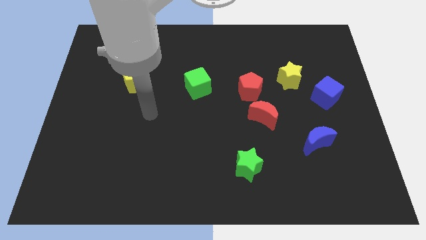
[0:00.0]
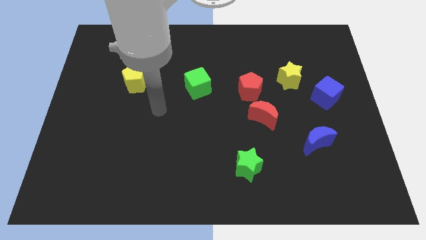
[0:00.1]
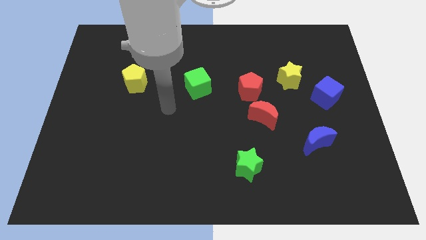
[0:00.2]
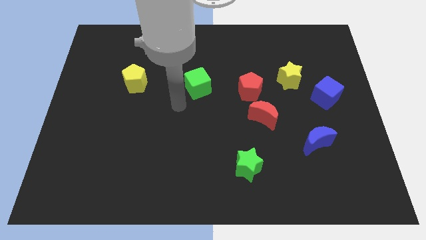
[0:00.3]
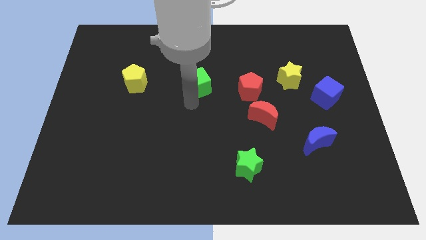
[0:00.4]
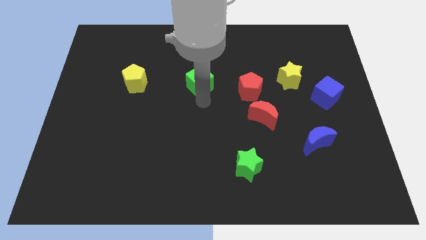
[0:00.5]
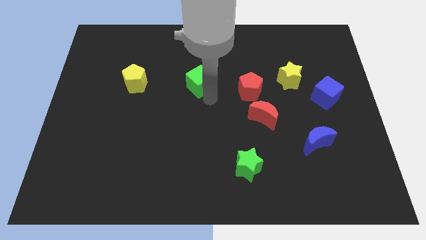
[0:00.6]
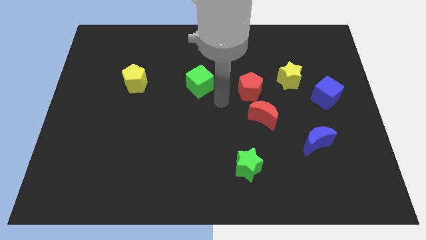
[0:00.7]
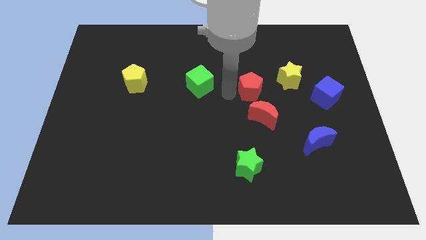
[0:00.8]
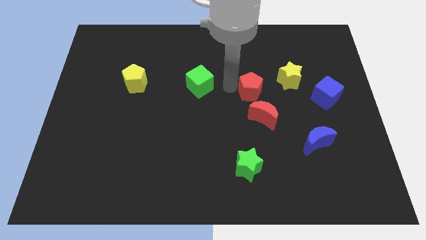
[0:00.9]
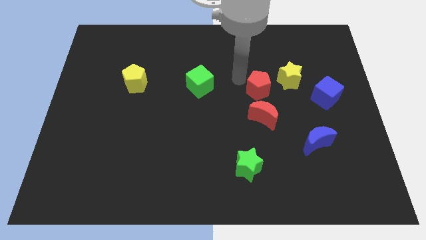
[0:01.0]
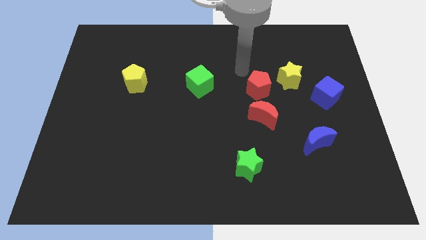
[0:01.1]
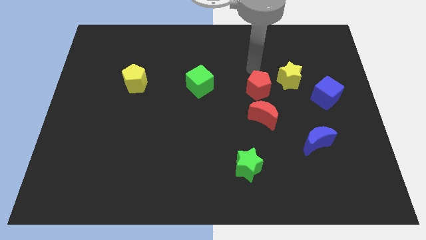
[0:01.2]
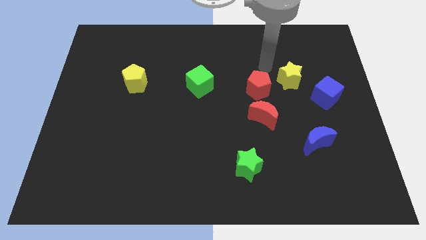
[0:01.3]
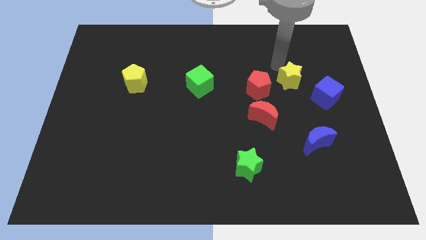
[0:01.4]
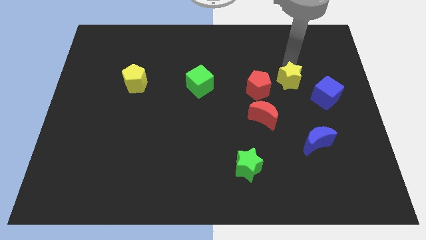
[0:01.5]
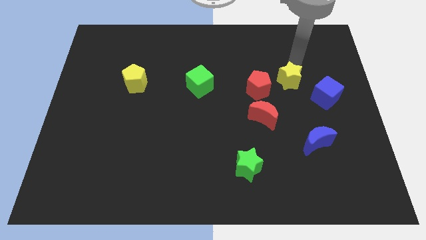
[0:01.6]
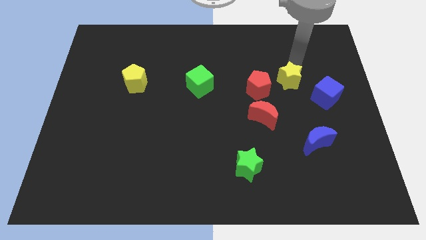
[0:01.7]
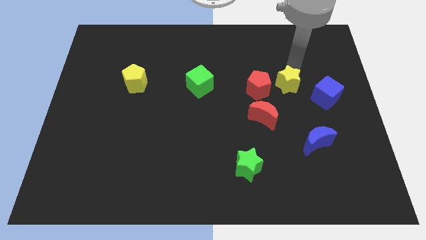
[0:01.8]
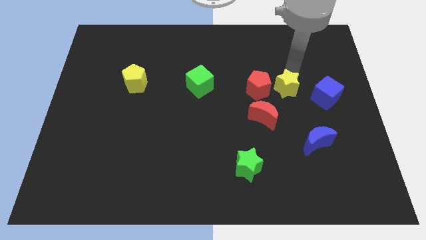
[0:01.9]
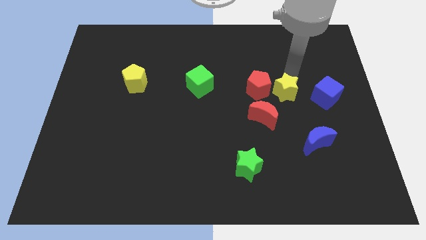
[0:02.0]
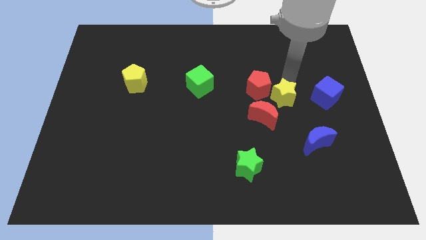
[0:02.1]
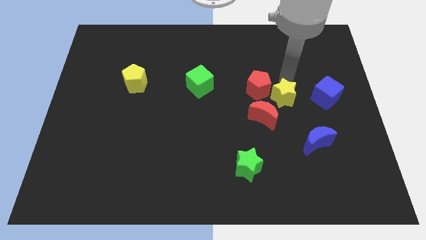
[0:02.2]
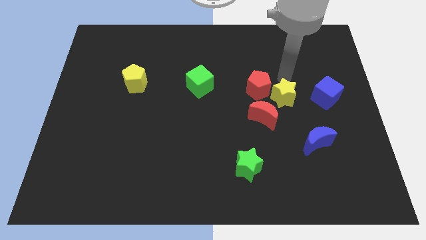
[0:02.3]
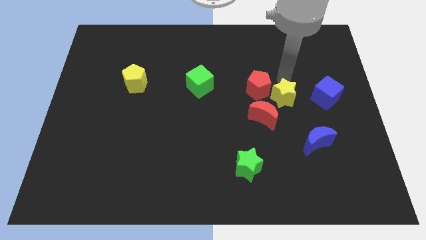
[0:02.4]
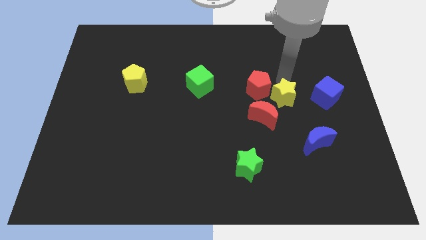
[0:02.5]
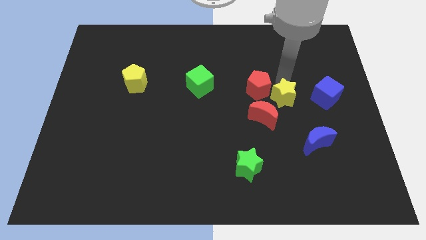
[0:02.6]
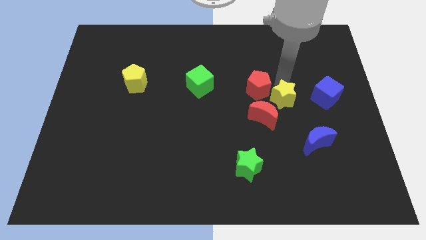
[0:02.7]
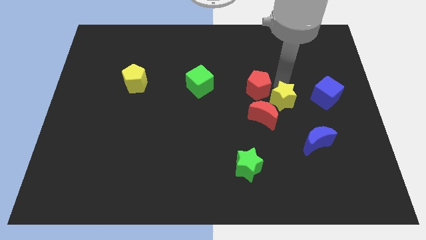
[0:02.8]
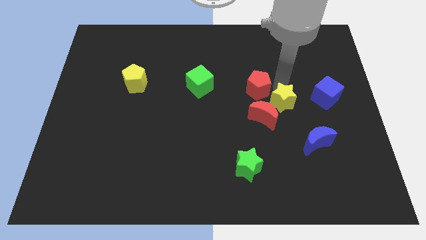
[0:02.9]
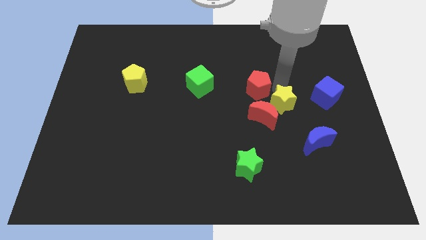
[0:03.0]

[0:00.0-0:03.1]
move the yellow star diagonally downwards and left a little

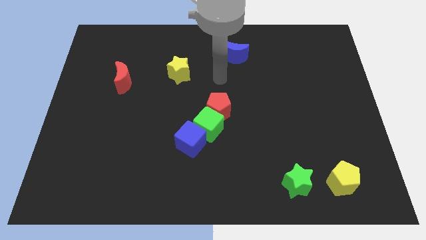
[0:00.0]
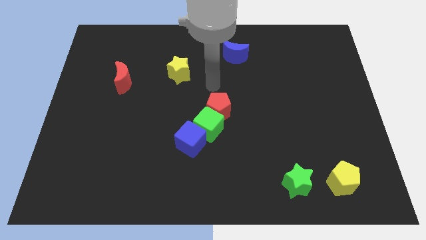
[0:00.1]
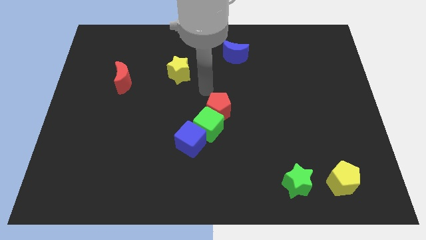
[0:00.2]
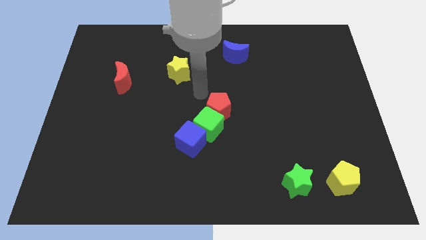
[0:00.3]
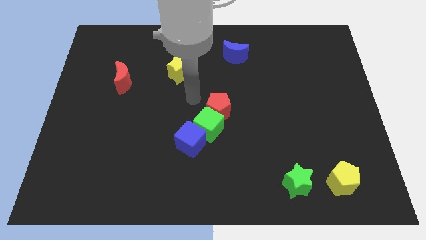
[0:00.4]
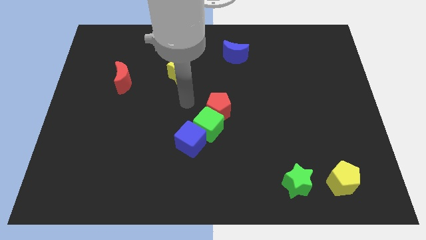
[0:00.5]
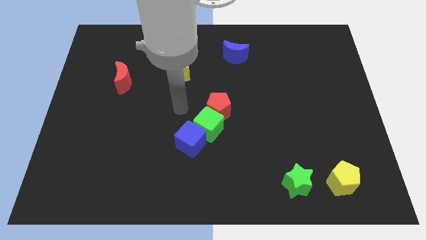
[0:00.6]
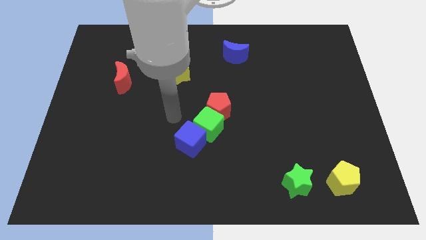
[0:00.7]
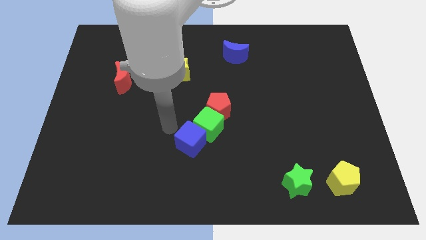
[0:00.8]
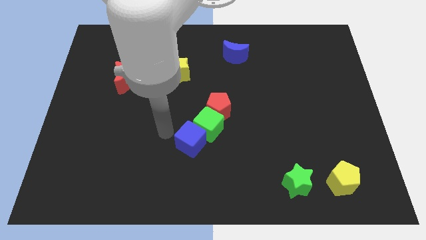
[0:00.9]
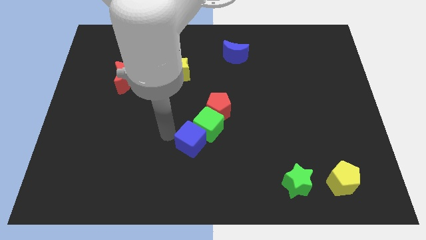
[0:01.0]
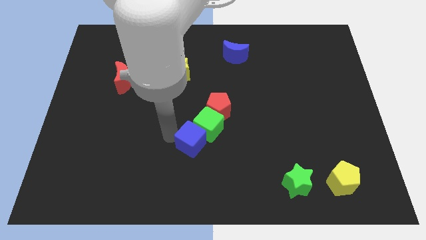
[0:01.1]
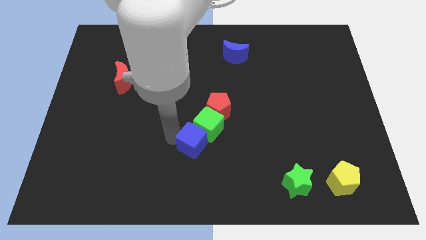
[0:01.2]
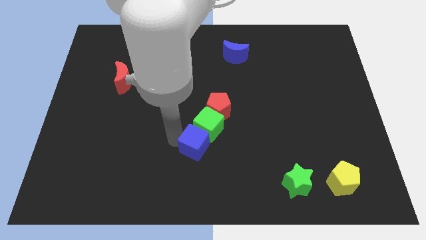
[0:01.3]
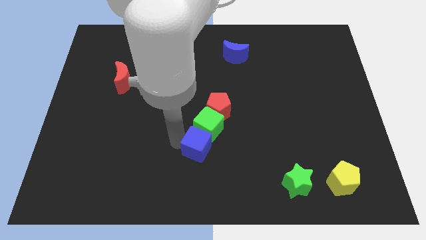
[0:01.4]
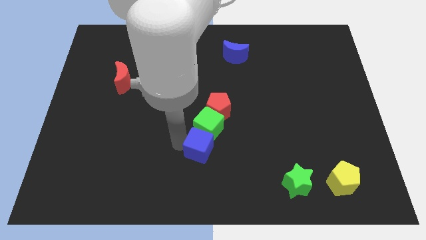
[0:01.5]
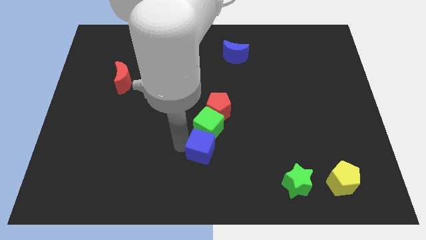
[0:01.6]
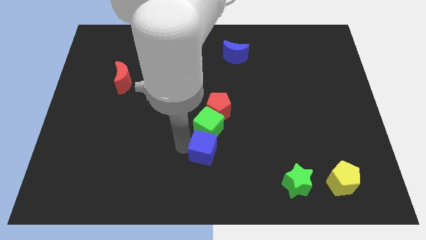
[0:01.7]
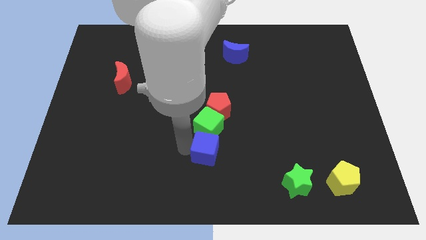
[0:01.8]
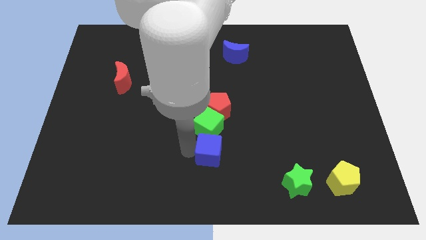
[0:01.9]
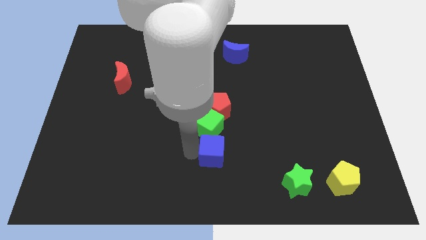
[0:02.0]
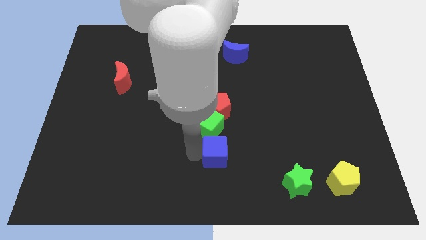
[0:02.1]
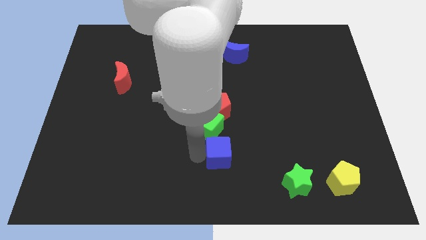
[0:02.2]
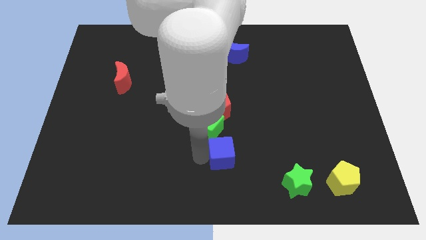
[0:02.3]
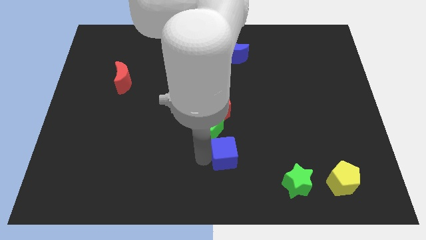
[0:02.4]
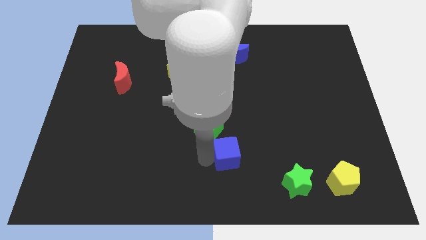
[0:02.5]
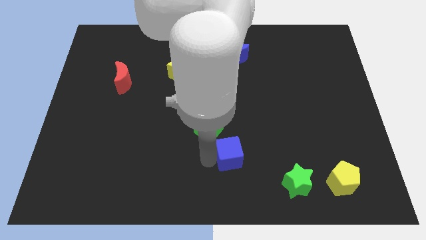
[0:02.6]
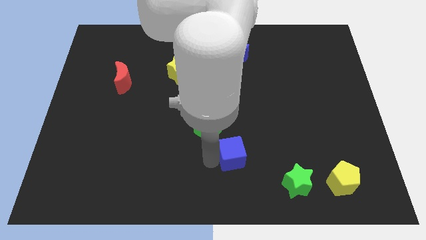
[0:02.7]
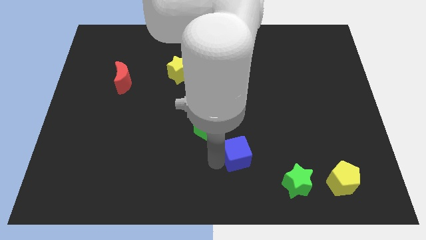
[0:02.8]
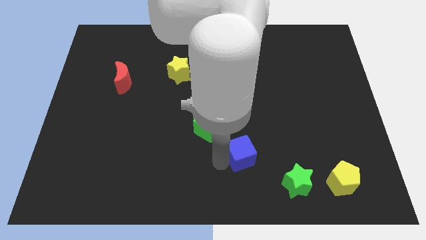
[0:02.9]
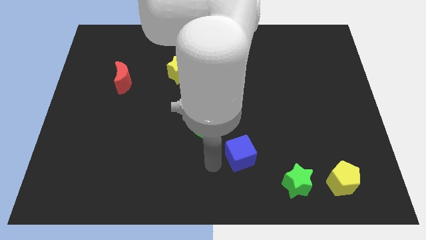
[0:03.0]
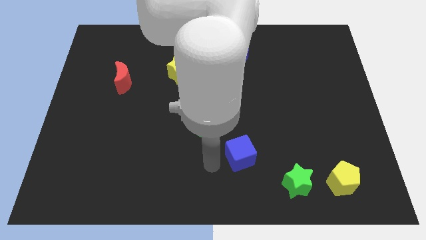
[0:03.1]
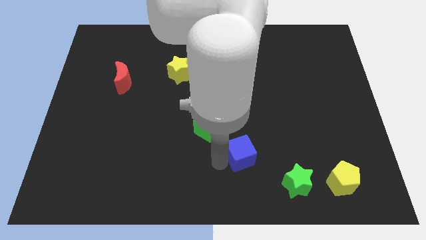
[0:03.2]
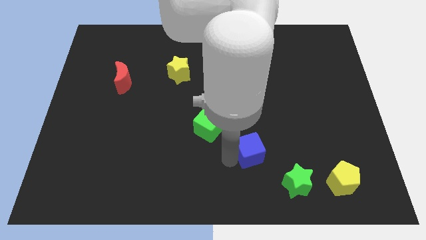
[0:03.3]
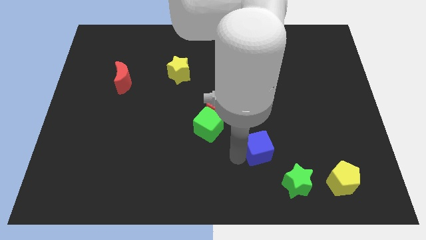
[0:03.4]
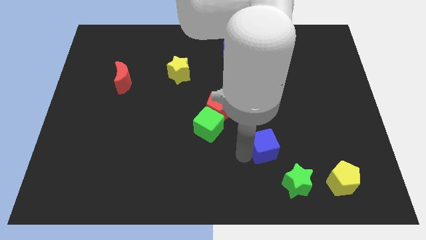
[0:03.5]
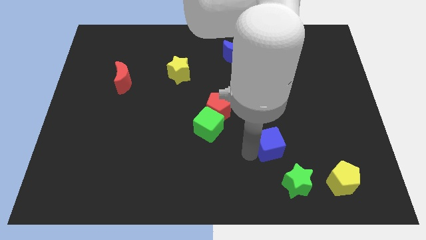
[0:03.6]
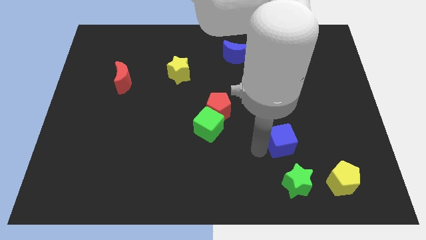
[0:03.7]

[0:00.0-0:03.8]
slide the blue cube to the right

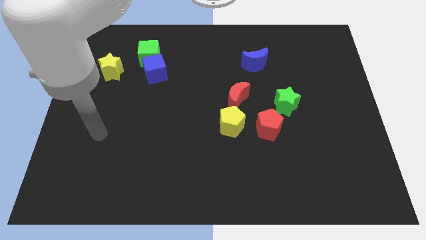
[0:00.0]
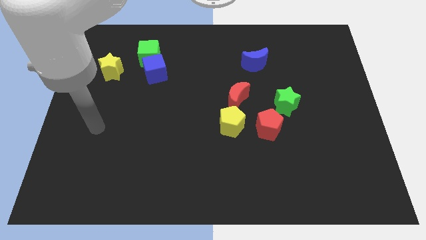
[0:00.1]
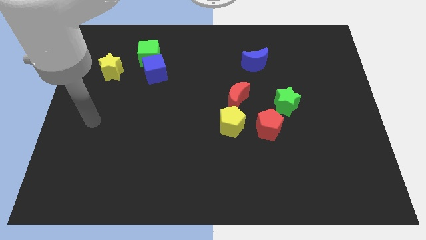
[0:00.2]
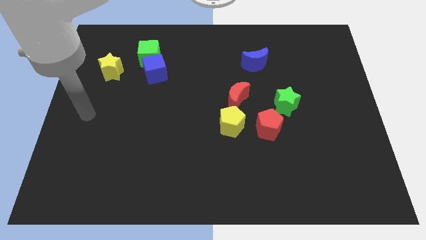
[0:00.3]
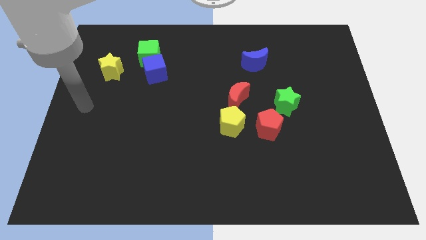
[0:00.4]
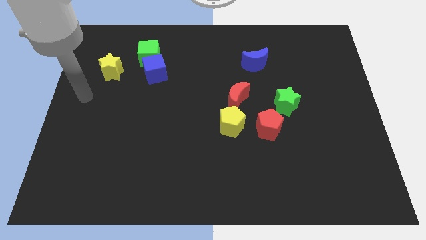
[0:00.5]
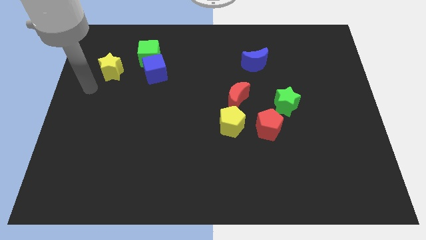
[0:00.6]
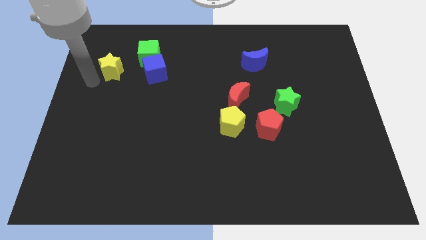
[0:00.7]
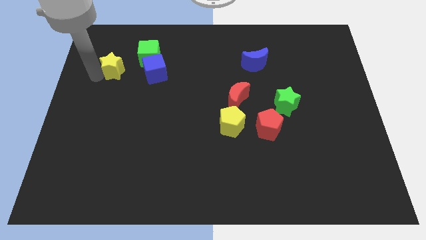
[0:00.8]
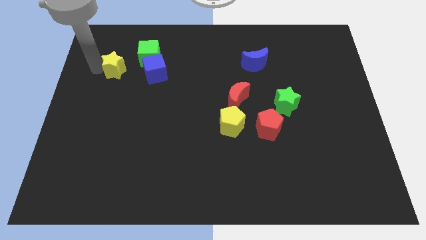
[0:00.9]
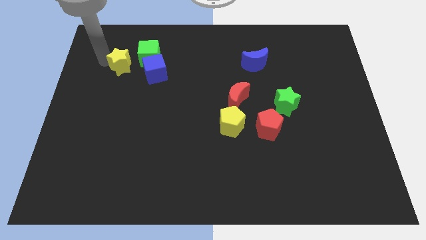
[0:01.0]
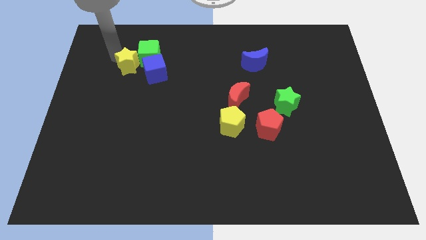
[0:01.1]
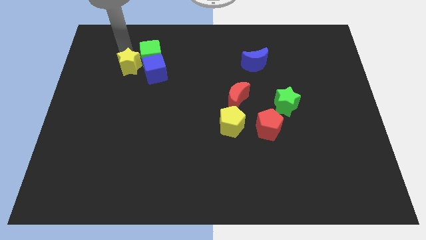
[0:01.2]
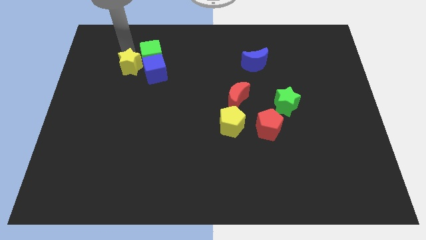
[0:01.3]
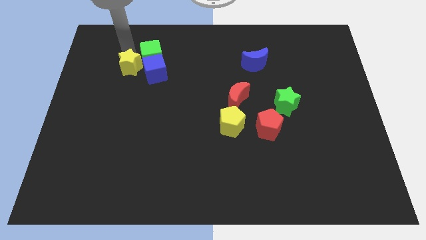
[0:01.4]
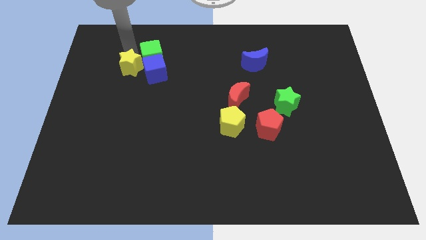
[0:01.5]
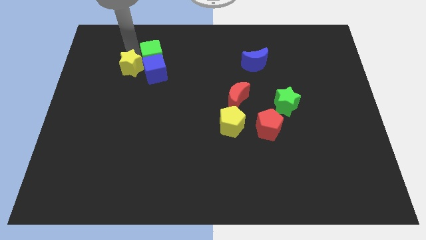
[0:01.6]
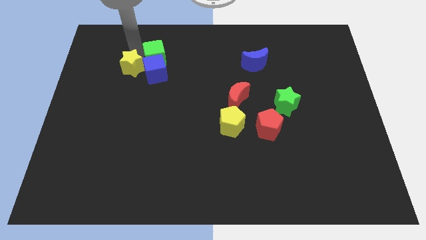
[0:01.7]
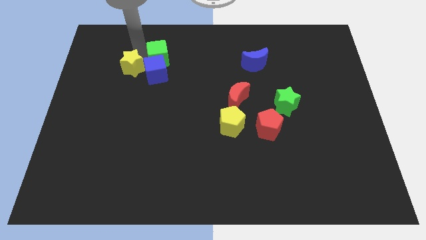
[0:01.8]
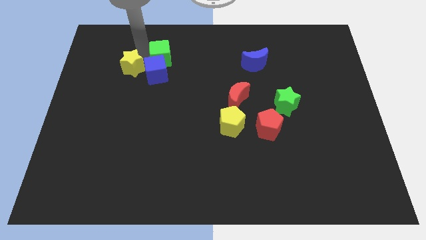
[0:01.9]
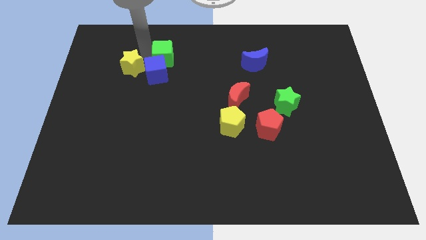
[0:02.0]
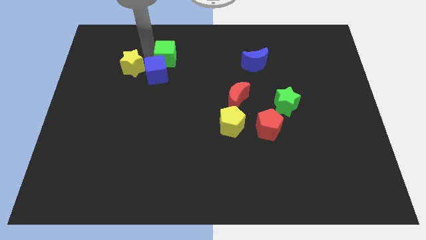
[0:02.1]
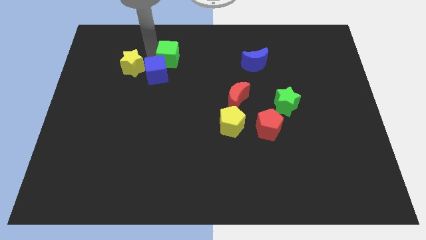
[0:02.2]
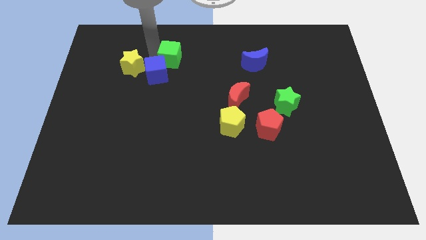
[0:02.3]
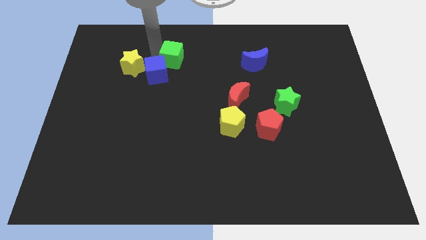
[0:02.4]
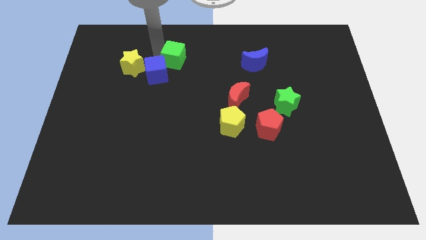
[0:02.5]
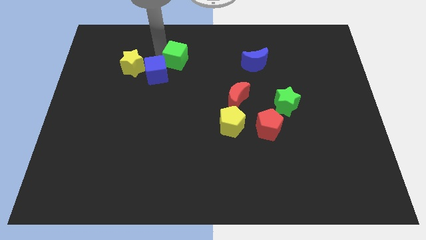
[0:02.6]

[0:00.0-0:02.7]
slide the green cube to the right a little bit
